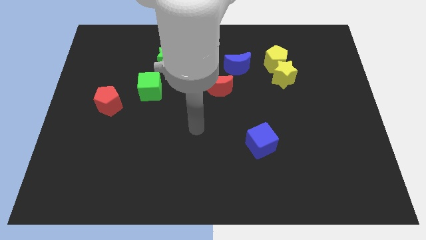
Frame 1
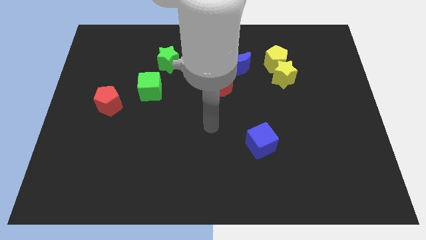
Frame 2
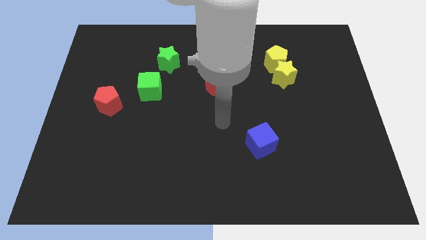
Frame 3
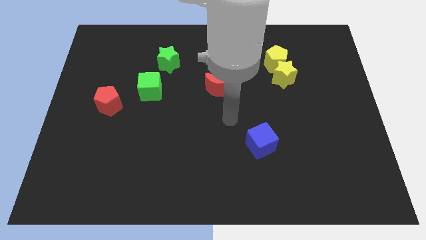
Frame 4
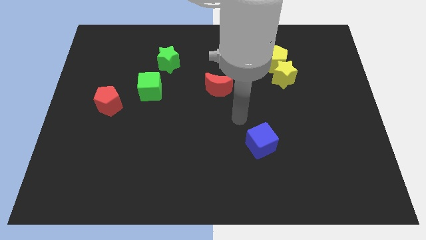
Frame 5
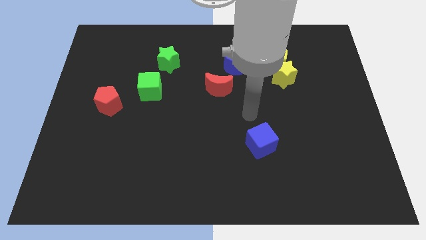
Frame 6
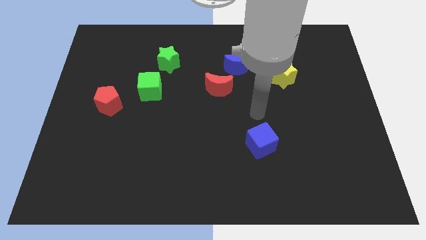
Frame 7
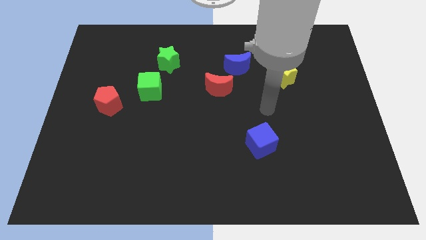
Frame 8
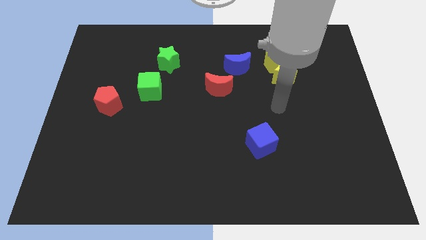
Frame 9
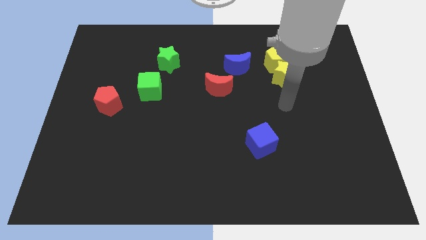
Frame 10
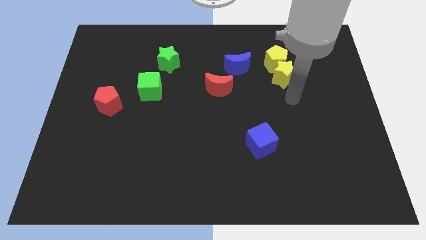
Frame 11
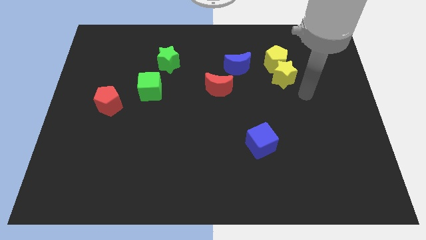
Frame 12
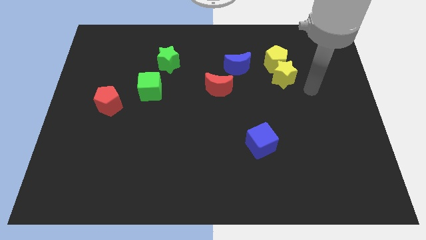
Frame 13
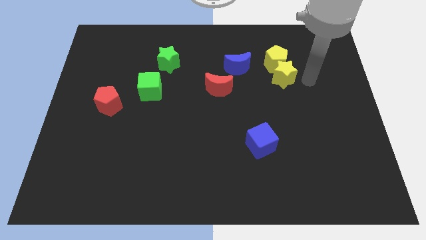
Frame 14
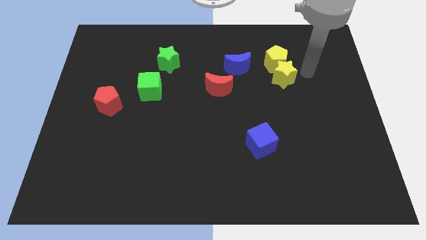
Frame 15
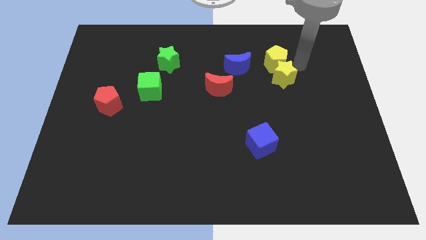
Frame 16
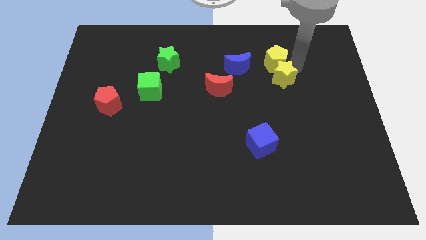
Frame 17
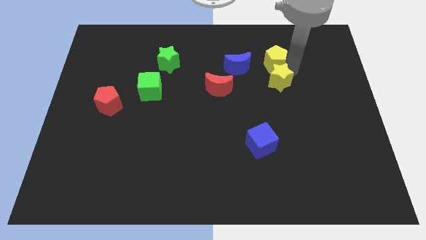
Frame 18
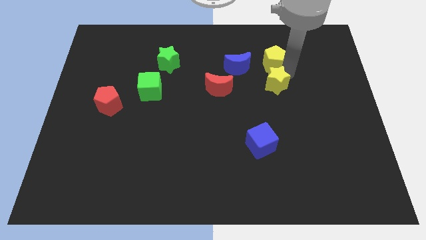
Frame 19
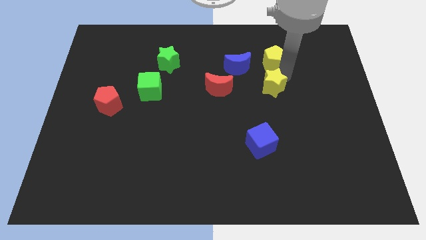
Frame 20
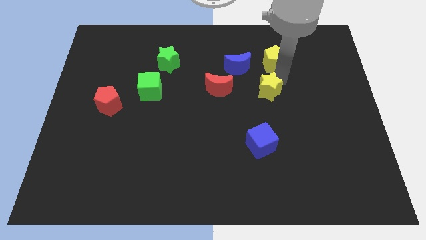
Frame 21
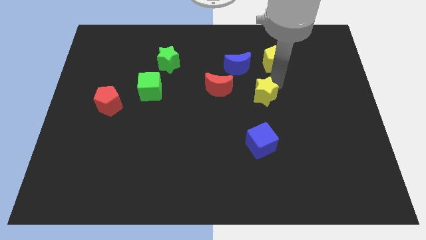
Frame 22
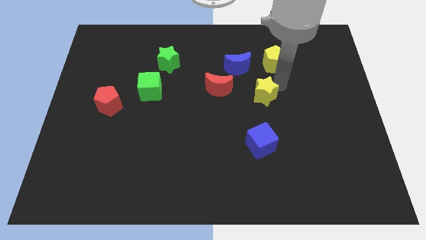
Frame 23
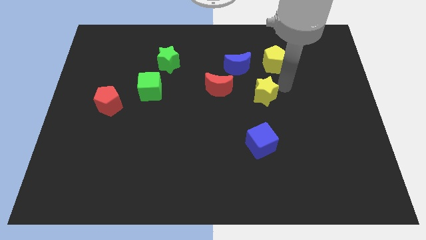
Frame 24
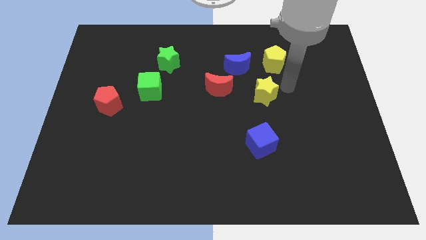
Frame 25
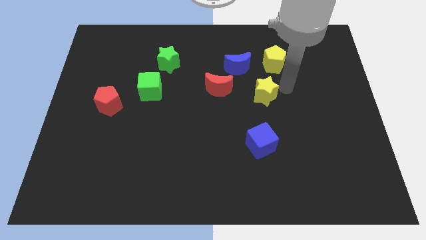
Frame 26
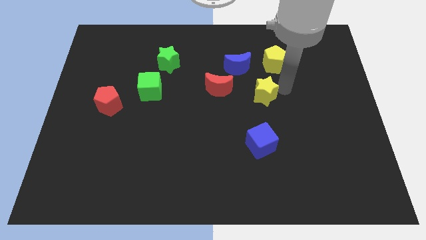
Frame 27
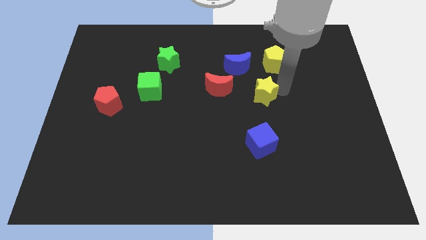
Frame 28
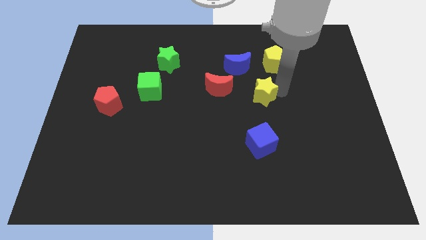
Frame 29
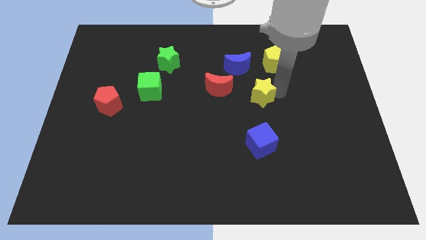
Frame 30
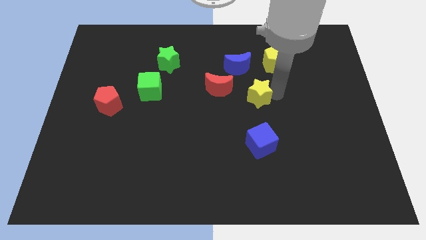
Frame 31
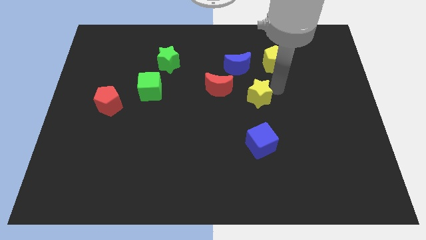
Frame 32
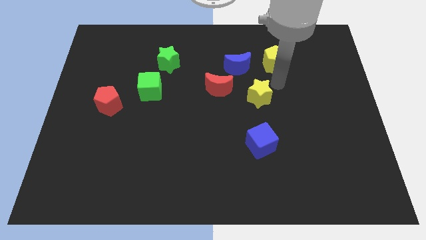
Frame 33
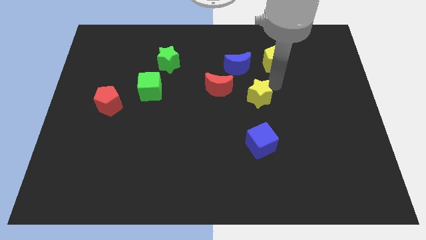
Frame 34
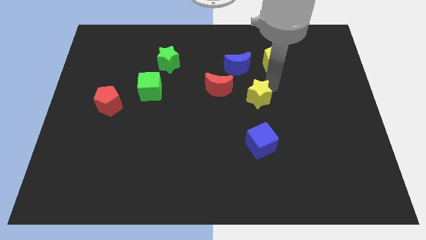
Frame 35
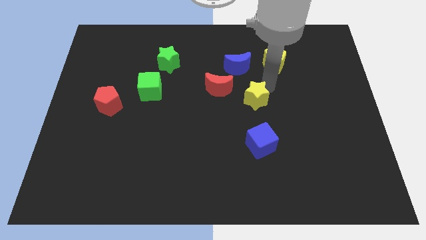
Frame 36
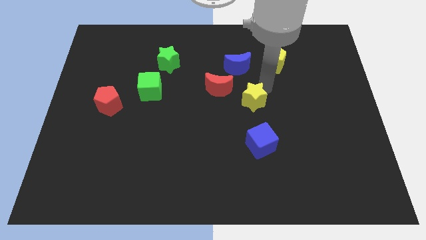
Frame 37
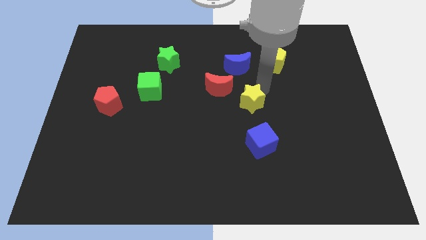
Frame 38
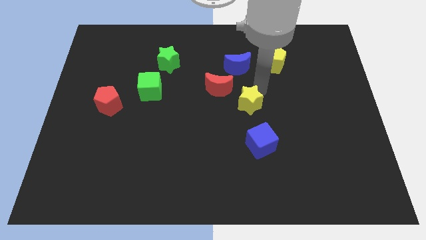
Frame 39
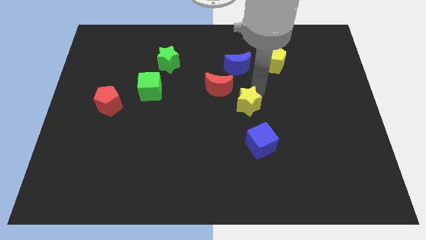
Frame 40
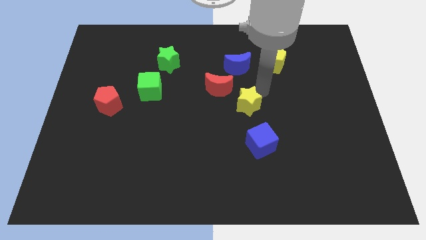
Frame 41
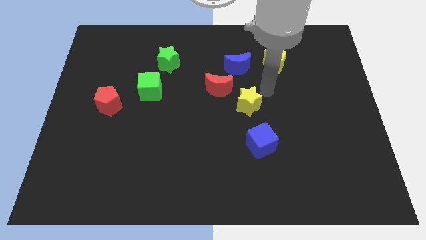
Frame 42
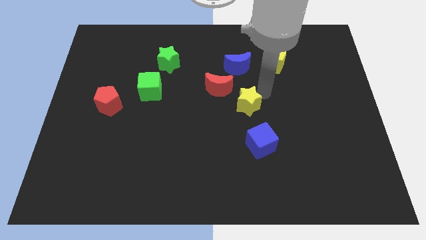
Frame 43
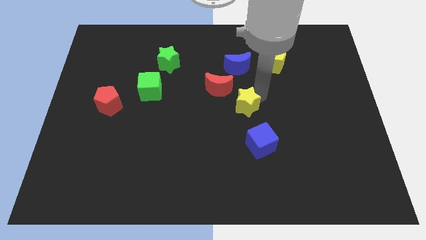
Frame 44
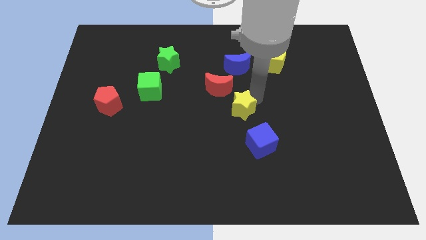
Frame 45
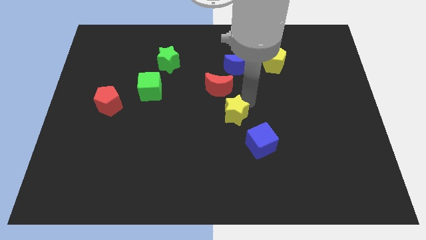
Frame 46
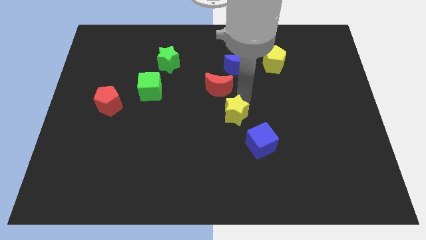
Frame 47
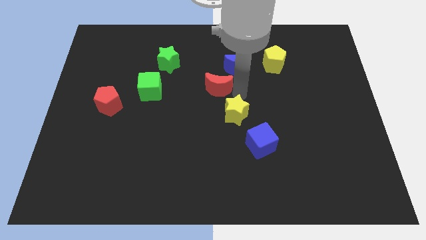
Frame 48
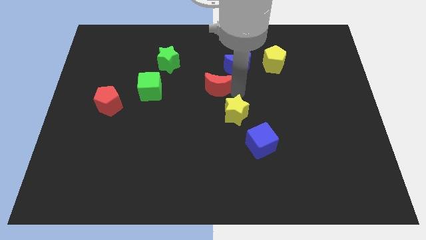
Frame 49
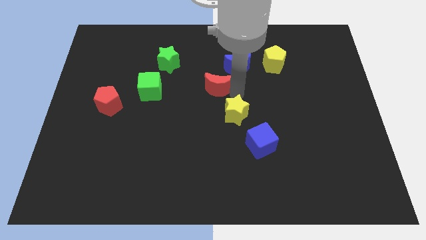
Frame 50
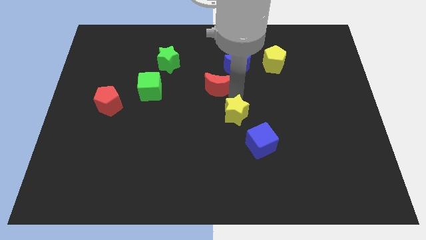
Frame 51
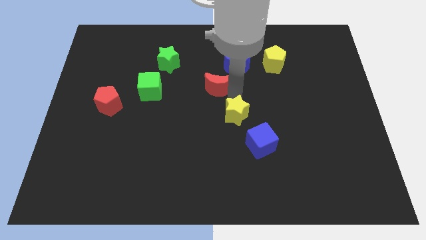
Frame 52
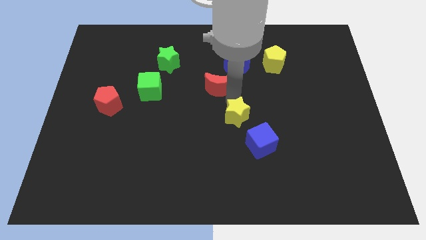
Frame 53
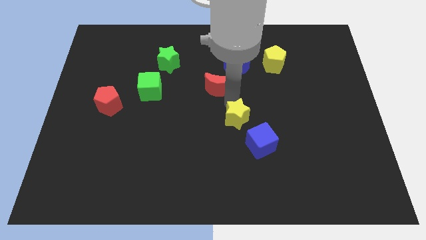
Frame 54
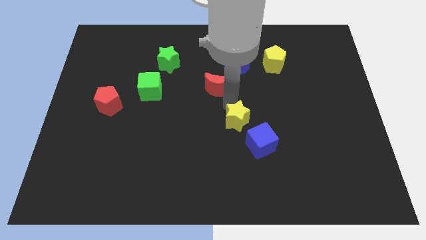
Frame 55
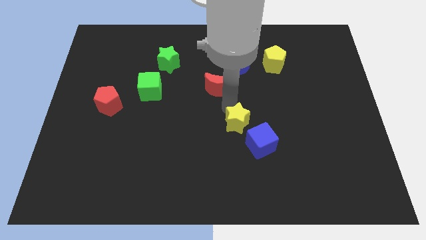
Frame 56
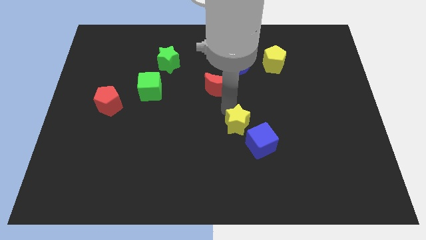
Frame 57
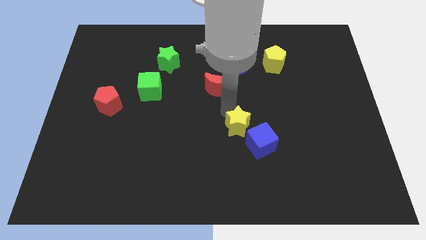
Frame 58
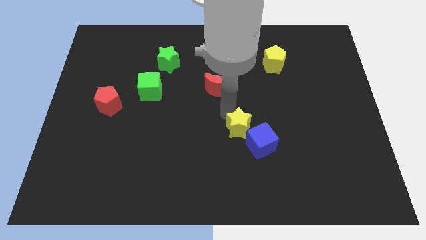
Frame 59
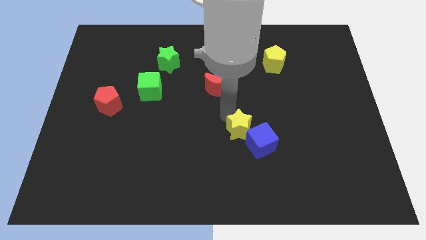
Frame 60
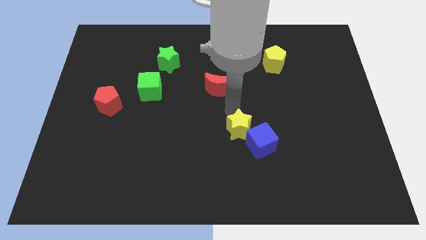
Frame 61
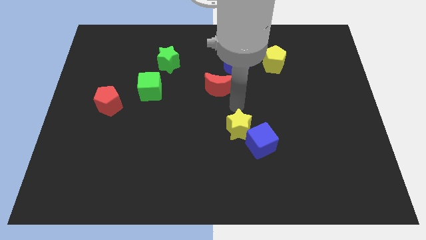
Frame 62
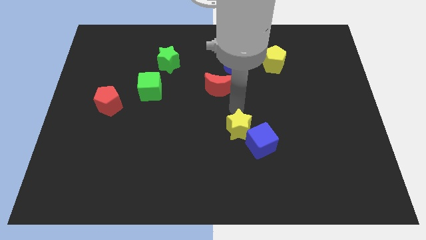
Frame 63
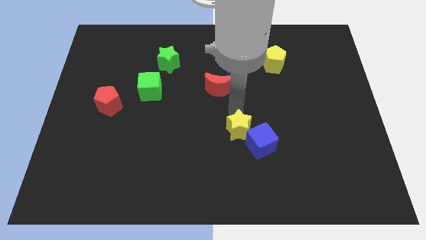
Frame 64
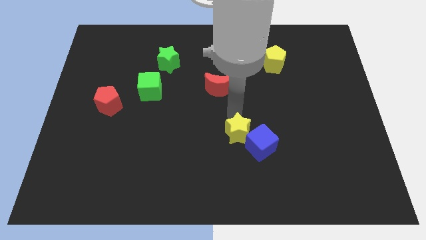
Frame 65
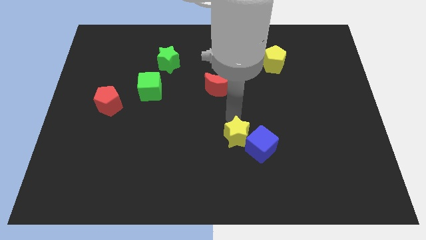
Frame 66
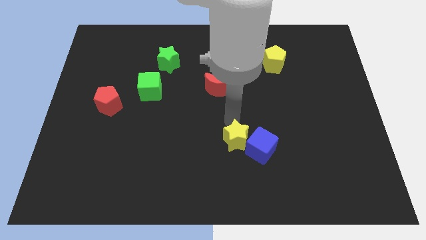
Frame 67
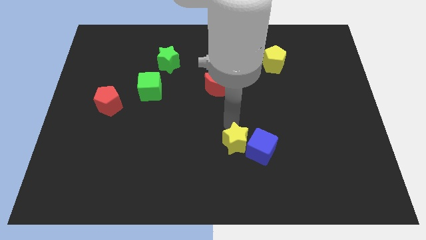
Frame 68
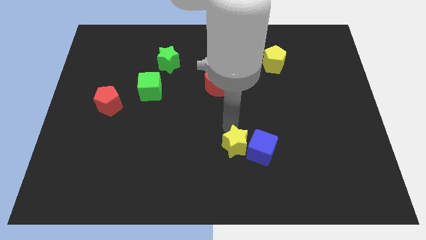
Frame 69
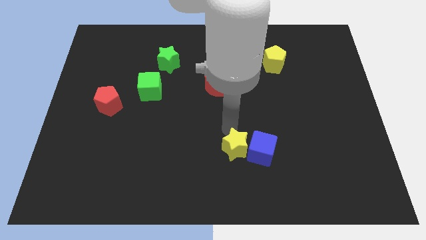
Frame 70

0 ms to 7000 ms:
move the yellow star to the bottom left of the blue cube
